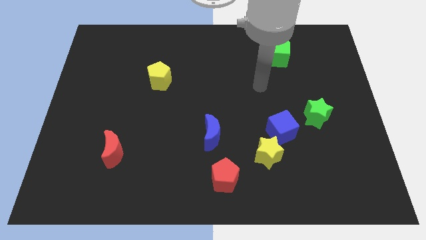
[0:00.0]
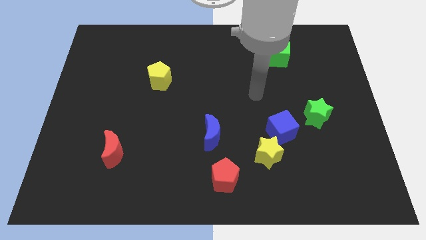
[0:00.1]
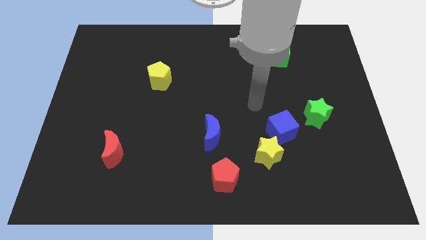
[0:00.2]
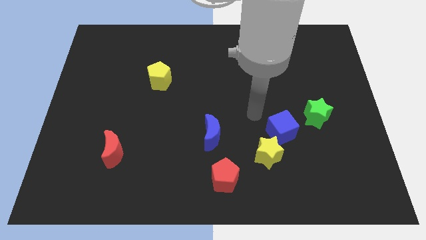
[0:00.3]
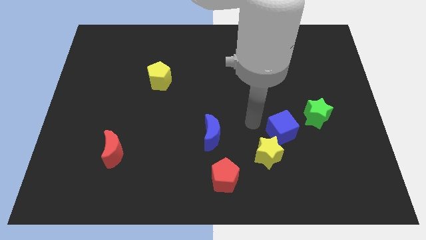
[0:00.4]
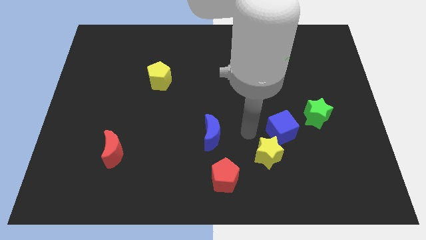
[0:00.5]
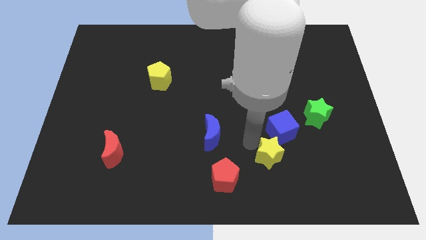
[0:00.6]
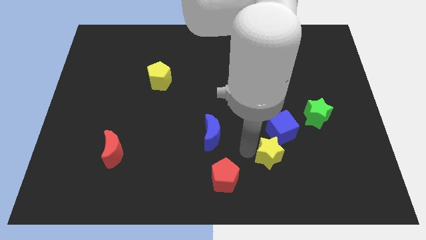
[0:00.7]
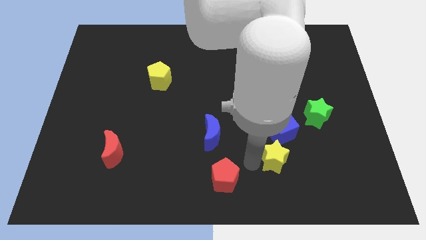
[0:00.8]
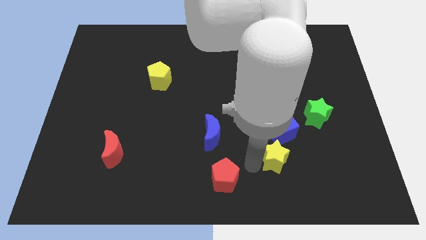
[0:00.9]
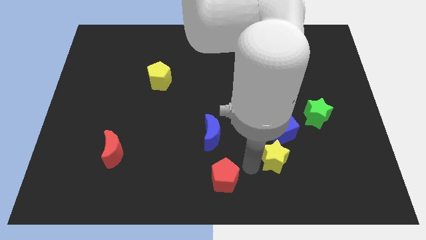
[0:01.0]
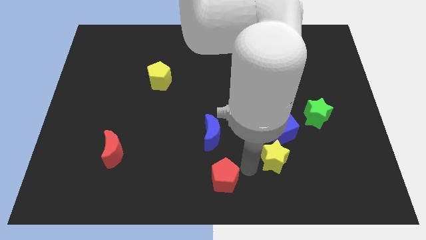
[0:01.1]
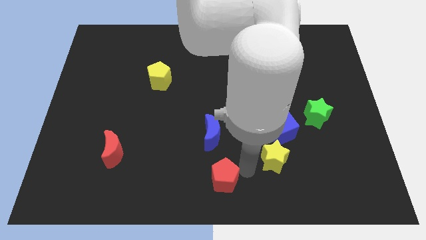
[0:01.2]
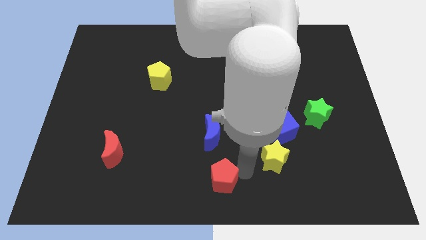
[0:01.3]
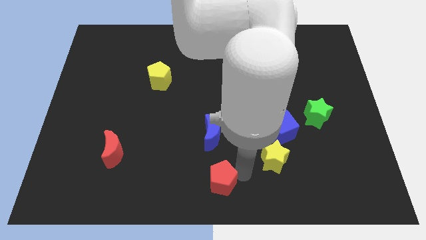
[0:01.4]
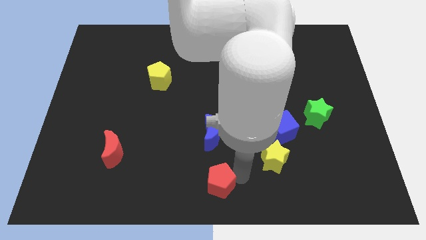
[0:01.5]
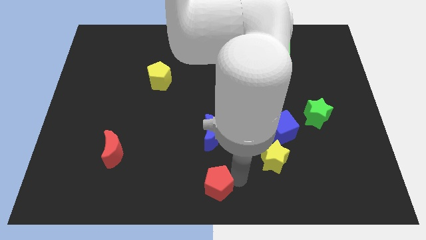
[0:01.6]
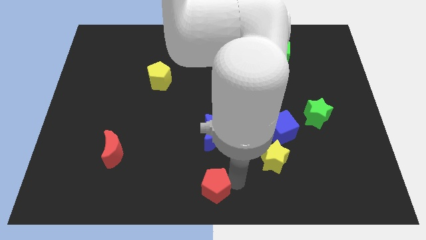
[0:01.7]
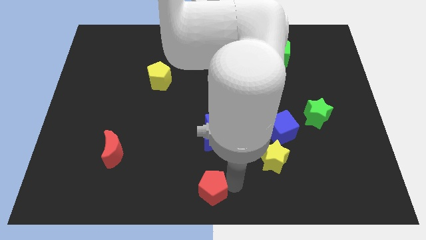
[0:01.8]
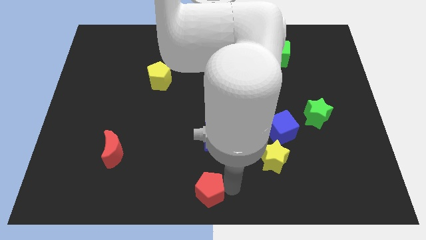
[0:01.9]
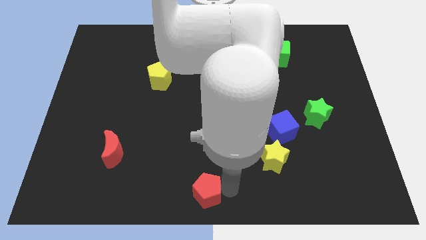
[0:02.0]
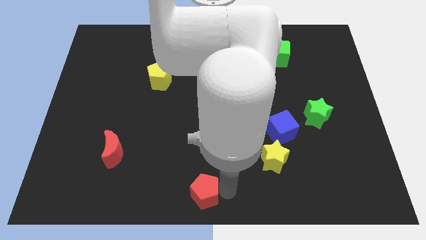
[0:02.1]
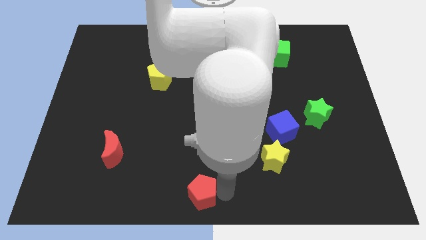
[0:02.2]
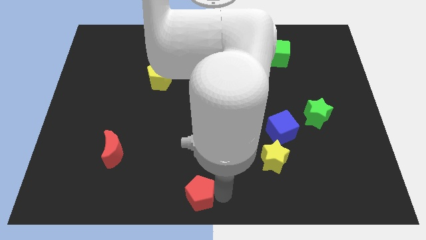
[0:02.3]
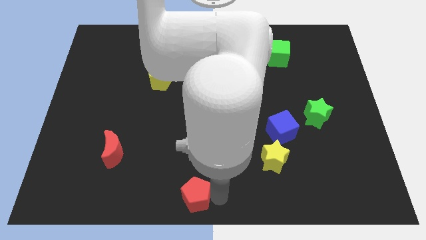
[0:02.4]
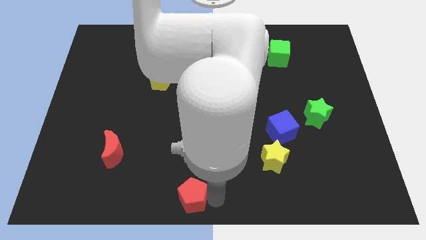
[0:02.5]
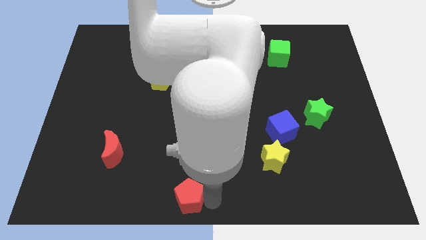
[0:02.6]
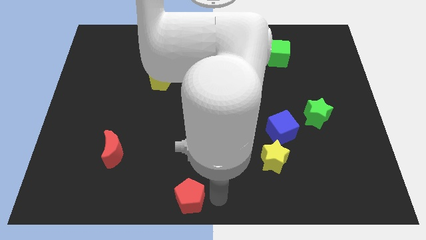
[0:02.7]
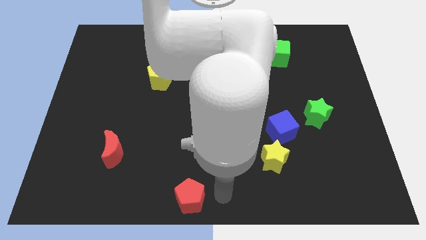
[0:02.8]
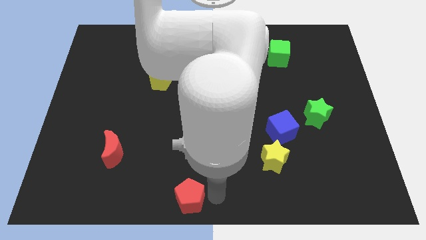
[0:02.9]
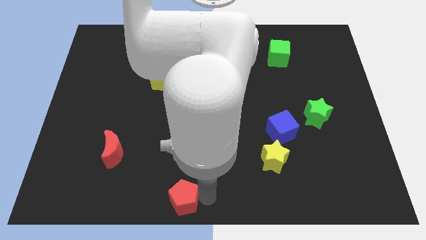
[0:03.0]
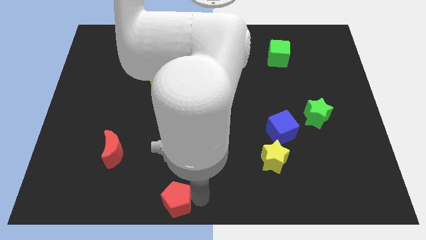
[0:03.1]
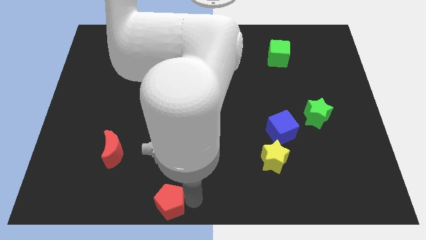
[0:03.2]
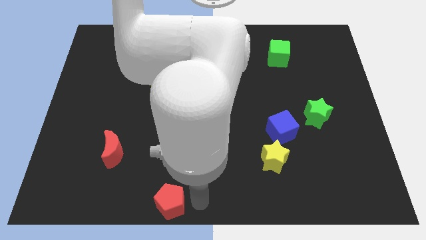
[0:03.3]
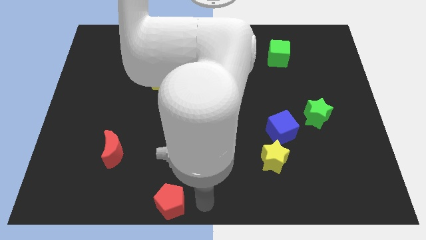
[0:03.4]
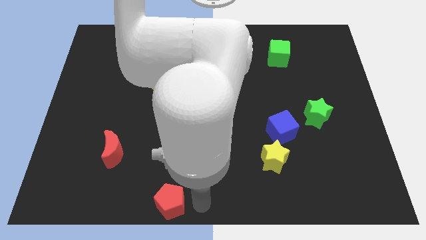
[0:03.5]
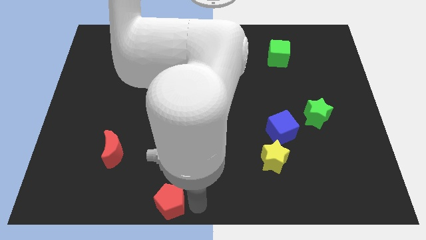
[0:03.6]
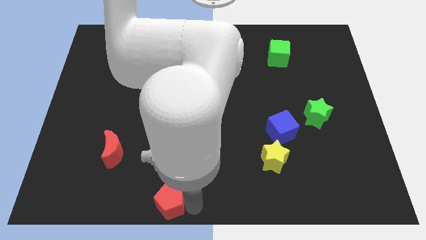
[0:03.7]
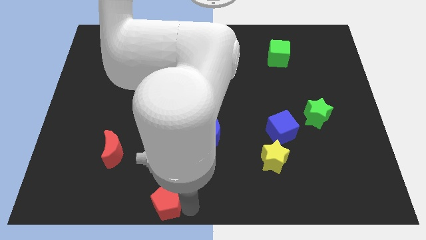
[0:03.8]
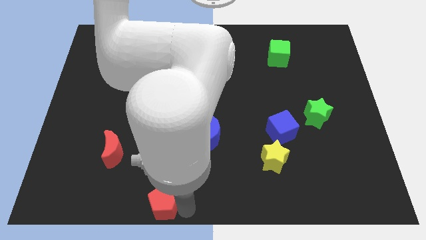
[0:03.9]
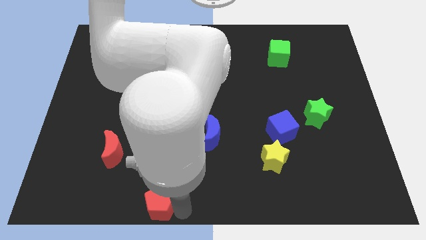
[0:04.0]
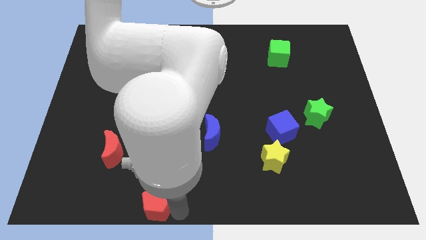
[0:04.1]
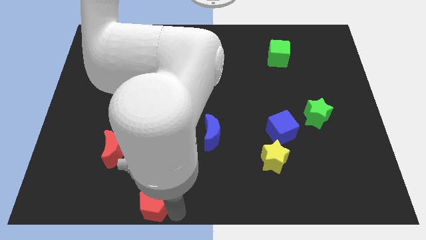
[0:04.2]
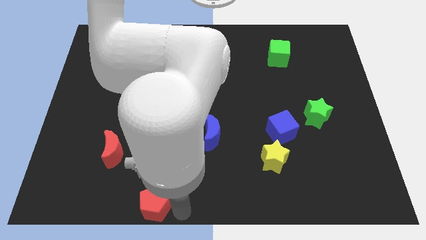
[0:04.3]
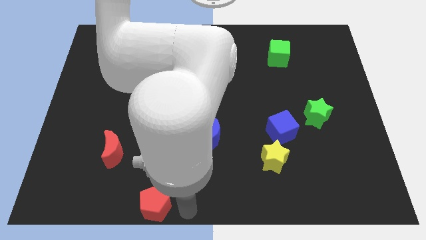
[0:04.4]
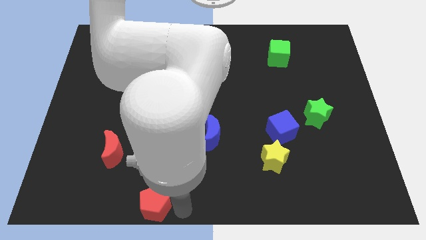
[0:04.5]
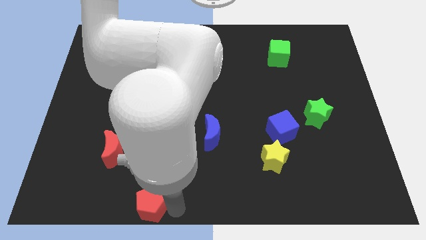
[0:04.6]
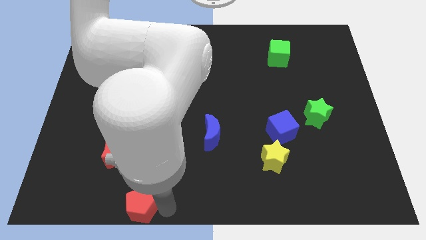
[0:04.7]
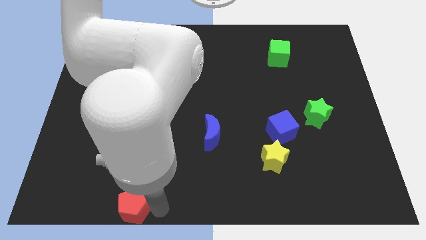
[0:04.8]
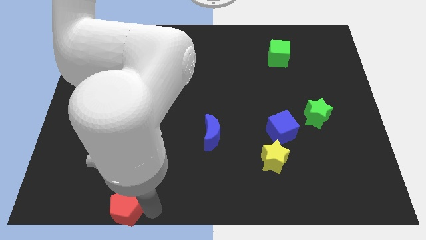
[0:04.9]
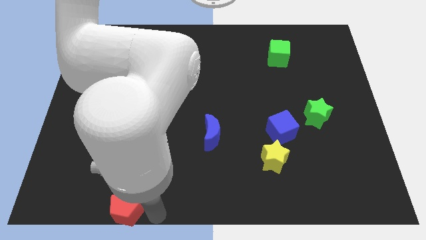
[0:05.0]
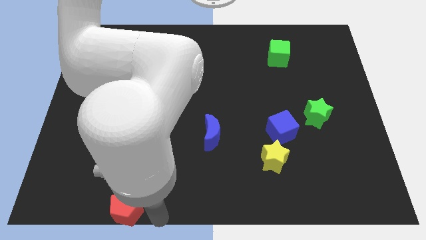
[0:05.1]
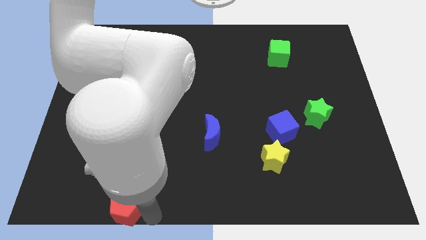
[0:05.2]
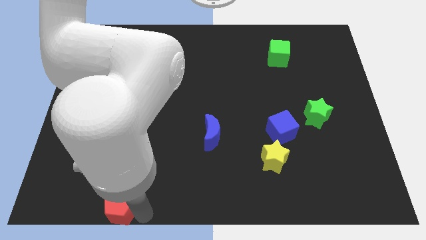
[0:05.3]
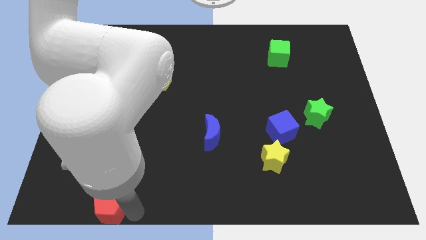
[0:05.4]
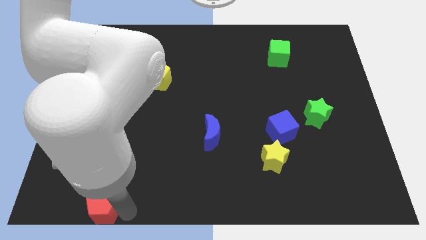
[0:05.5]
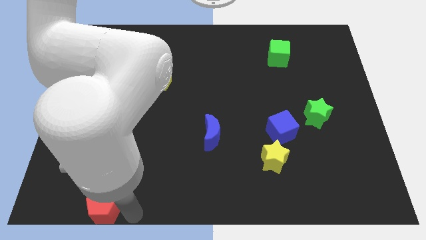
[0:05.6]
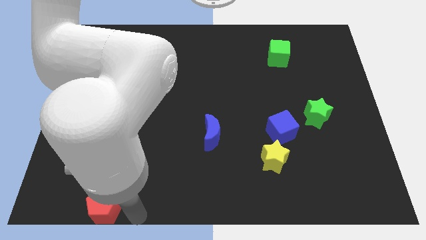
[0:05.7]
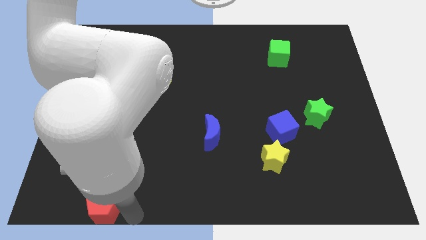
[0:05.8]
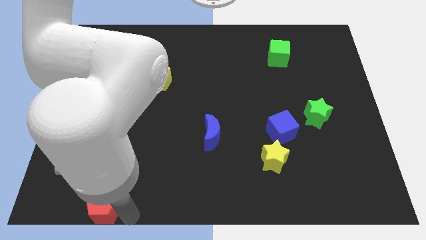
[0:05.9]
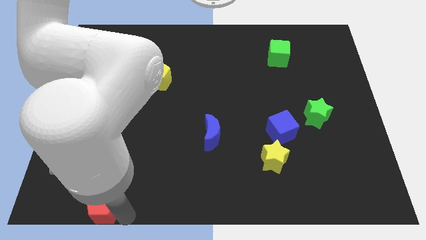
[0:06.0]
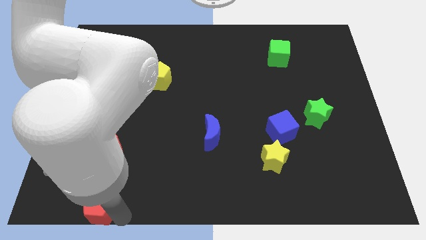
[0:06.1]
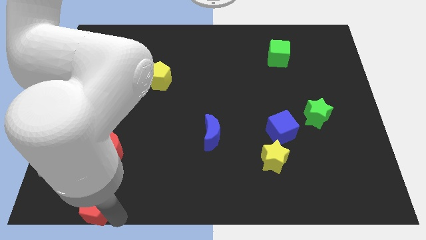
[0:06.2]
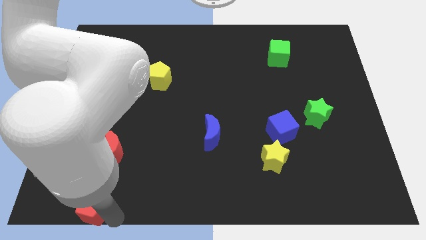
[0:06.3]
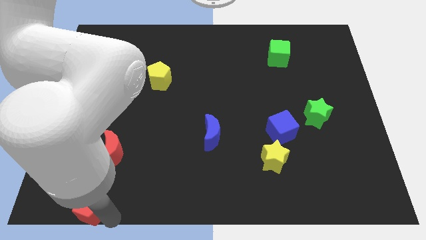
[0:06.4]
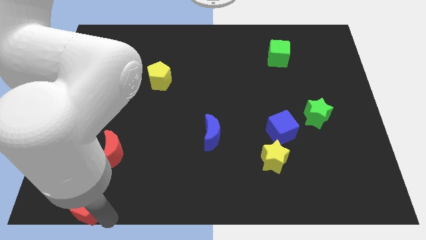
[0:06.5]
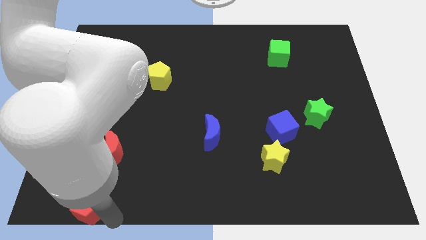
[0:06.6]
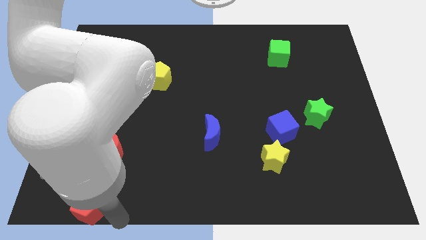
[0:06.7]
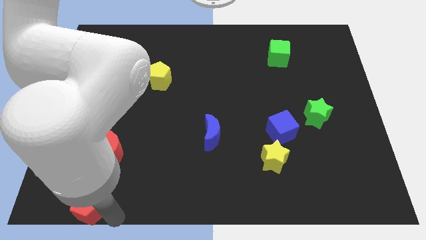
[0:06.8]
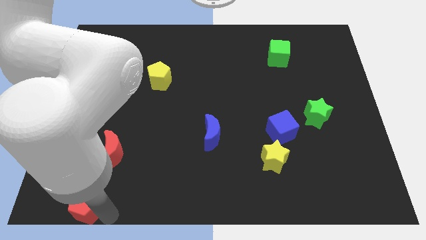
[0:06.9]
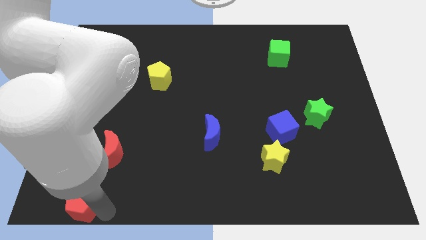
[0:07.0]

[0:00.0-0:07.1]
push the red pentagon to the bottom left
